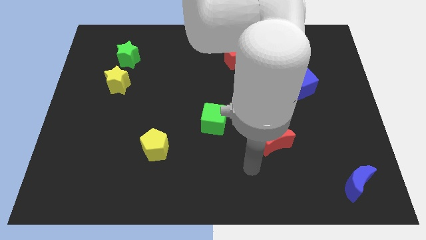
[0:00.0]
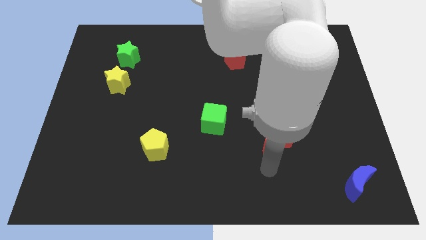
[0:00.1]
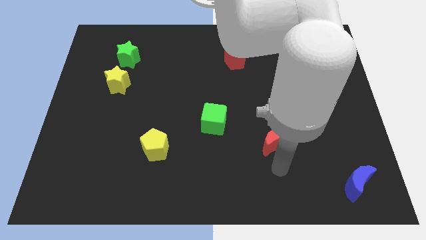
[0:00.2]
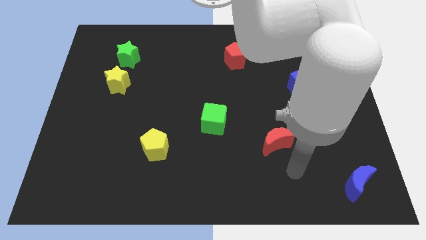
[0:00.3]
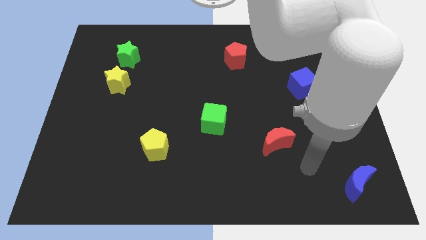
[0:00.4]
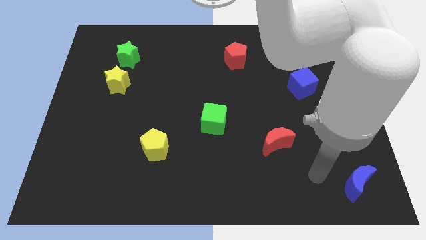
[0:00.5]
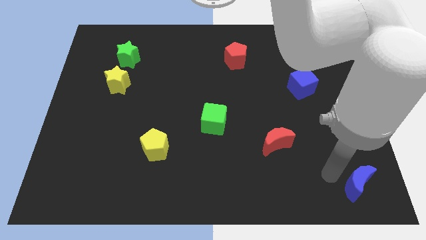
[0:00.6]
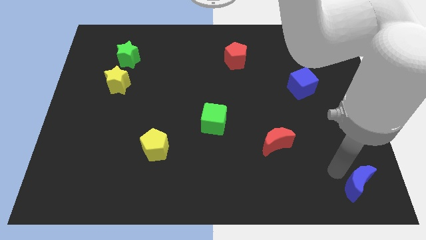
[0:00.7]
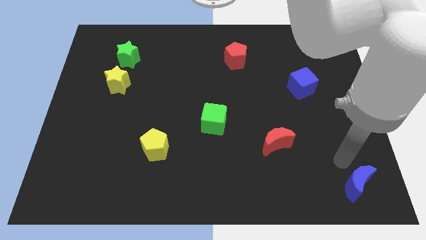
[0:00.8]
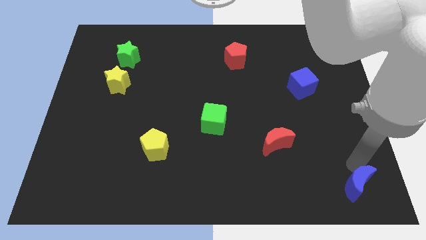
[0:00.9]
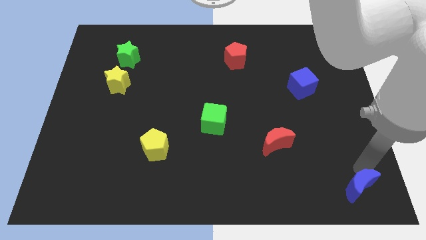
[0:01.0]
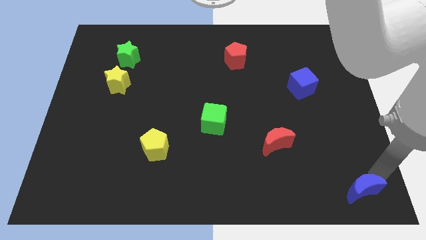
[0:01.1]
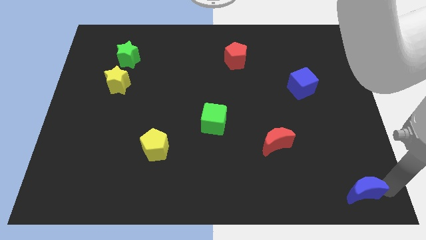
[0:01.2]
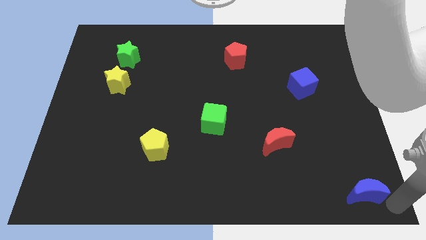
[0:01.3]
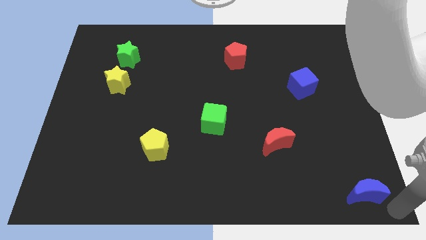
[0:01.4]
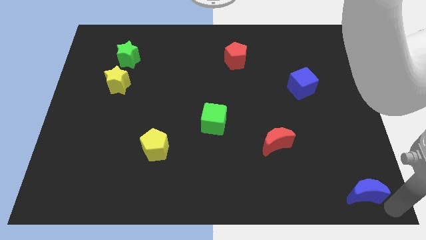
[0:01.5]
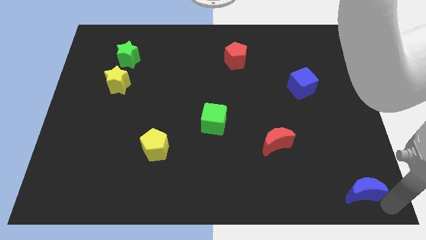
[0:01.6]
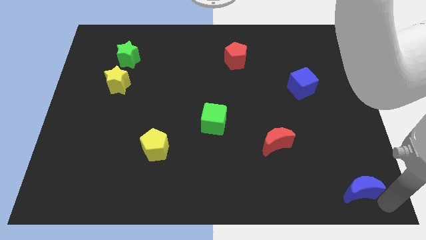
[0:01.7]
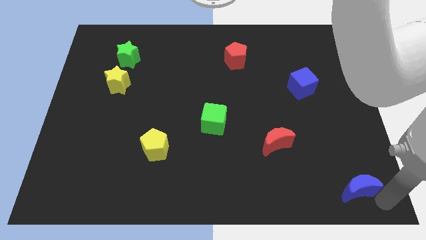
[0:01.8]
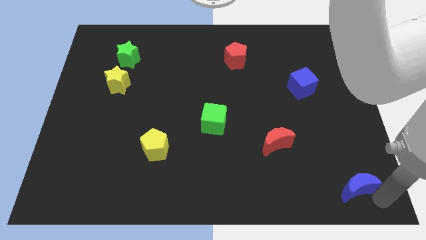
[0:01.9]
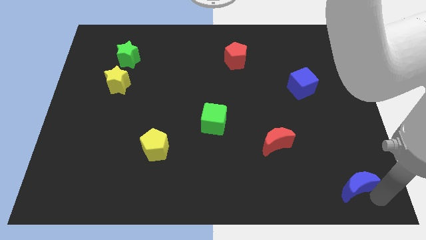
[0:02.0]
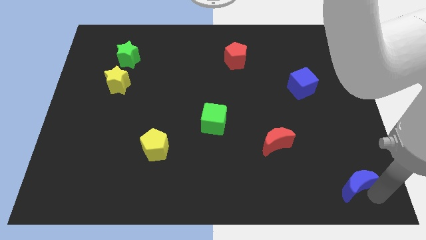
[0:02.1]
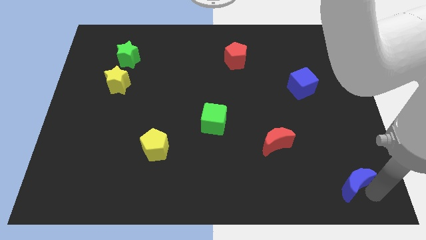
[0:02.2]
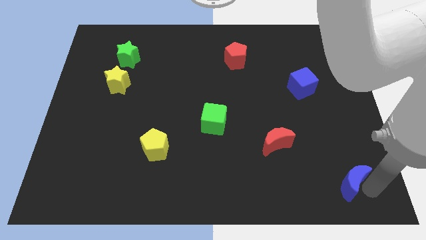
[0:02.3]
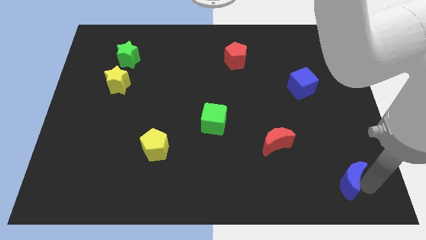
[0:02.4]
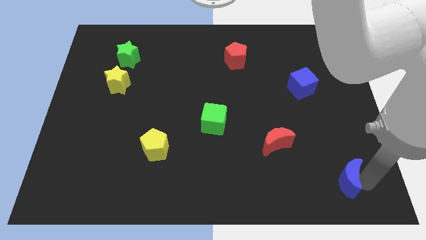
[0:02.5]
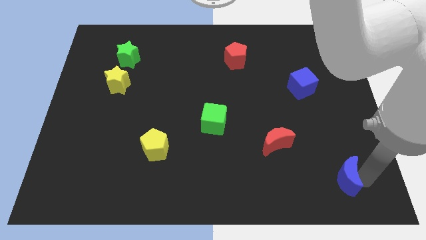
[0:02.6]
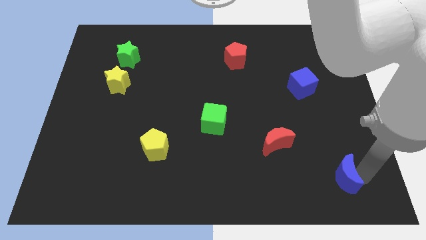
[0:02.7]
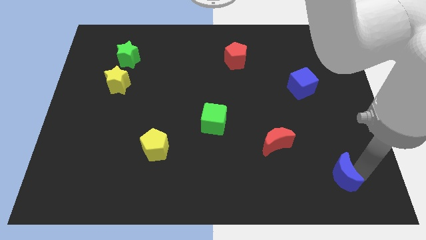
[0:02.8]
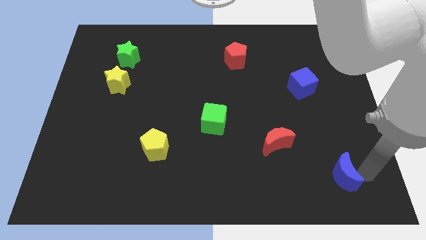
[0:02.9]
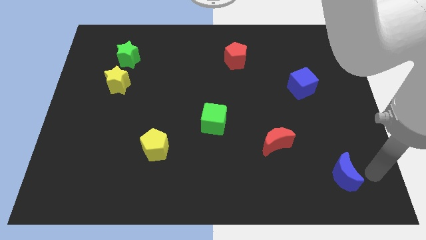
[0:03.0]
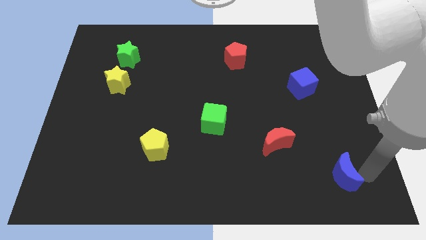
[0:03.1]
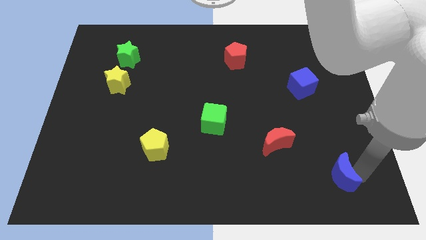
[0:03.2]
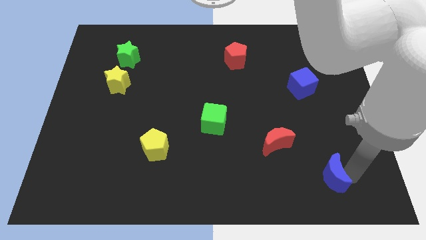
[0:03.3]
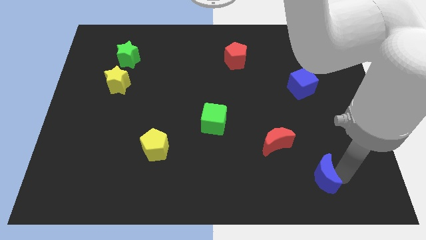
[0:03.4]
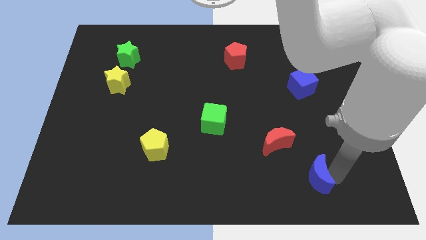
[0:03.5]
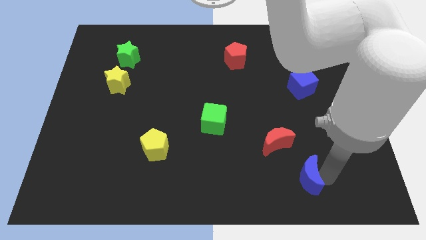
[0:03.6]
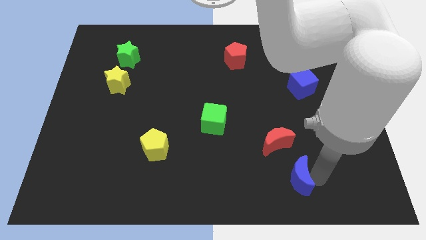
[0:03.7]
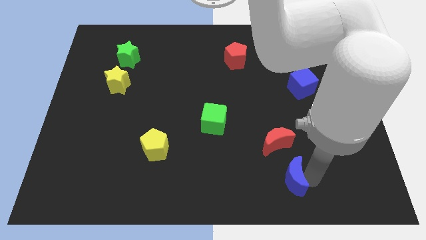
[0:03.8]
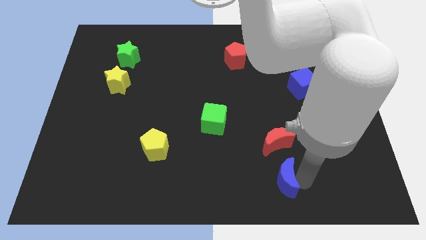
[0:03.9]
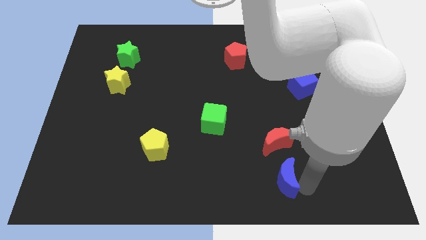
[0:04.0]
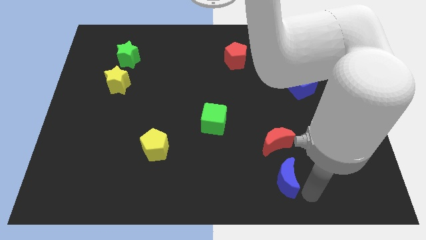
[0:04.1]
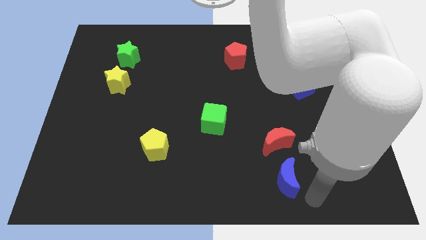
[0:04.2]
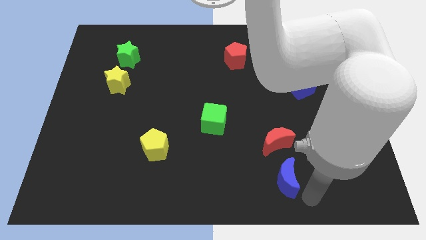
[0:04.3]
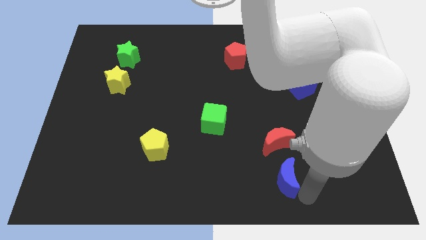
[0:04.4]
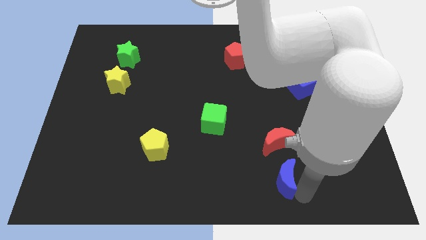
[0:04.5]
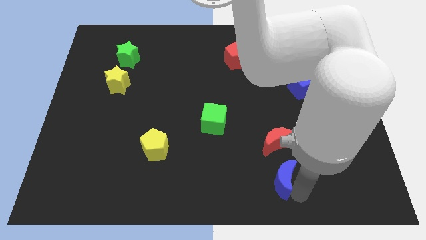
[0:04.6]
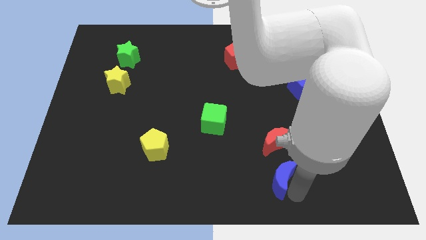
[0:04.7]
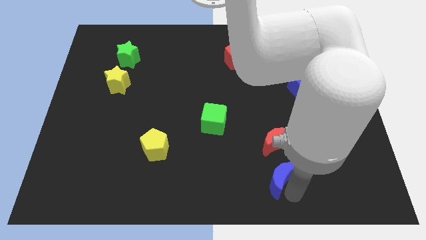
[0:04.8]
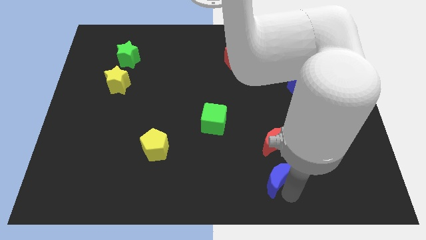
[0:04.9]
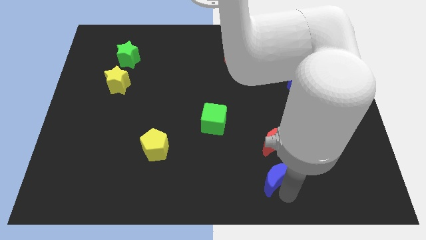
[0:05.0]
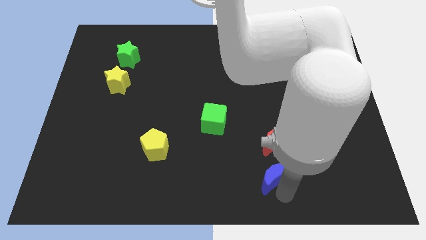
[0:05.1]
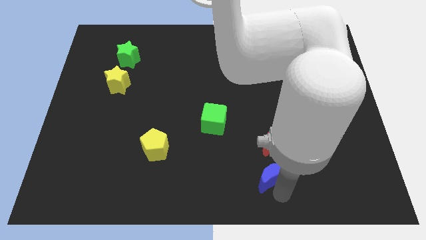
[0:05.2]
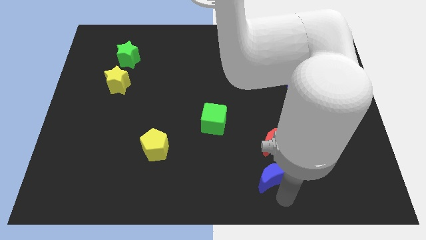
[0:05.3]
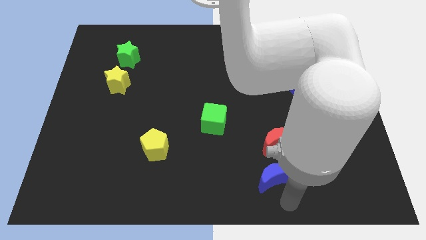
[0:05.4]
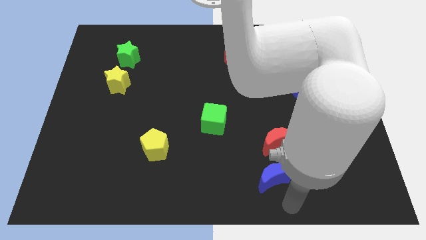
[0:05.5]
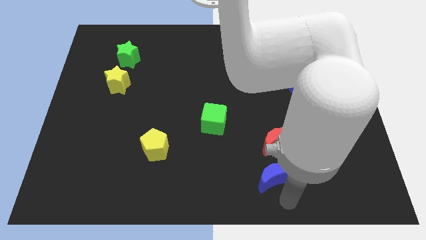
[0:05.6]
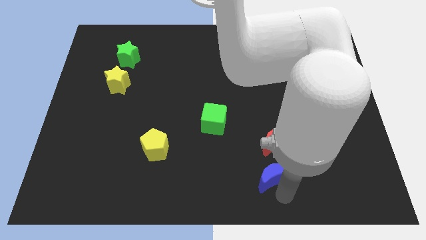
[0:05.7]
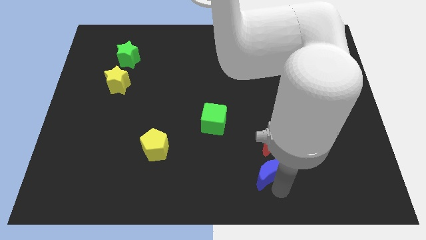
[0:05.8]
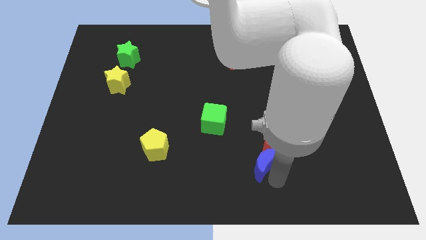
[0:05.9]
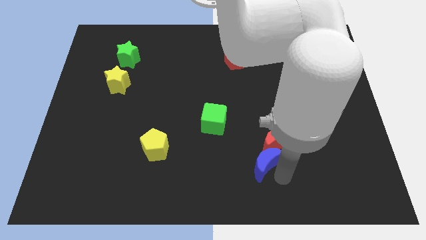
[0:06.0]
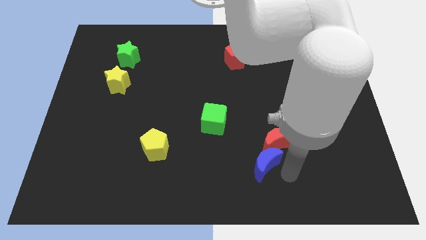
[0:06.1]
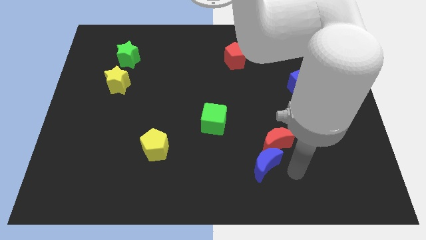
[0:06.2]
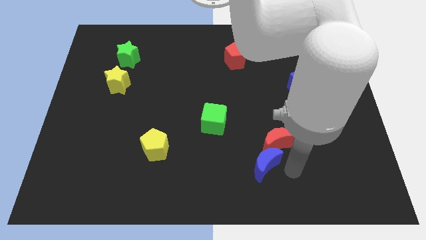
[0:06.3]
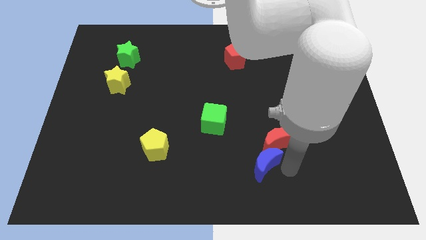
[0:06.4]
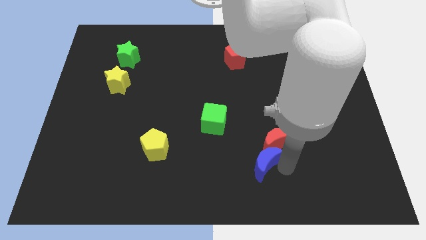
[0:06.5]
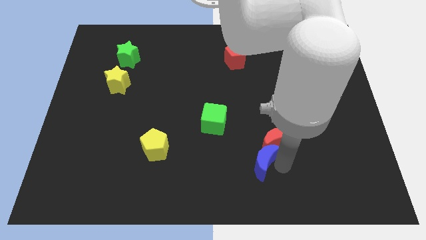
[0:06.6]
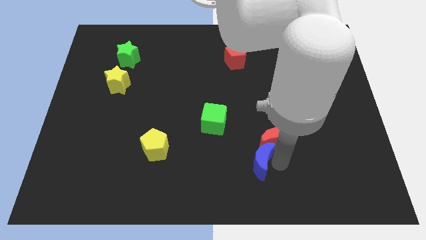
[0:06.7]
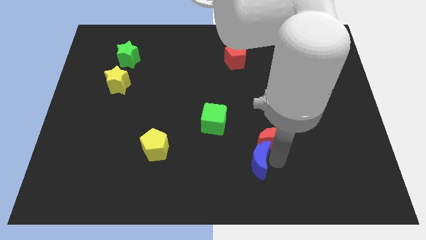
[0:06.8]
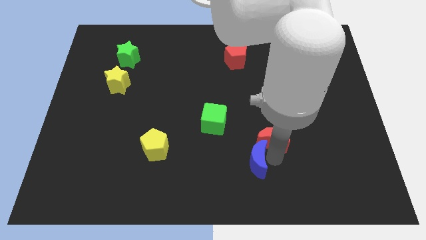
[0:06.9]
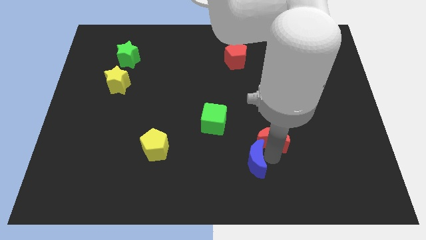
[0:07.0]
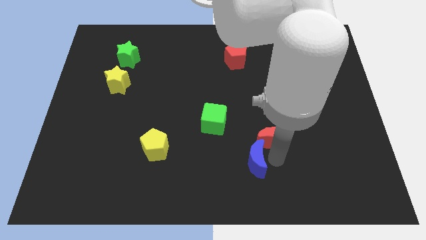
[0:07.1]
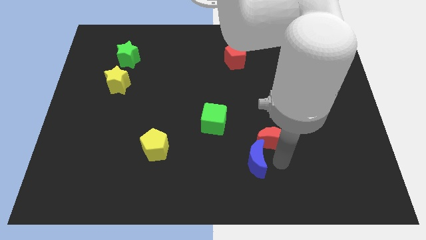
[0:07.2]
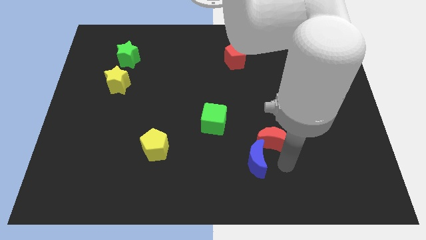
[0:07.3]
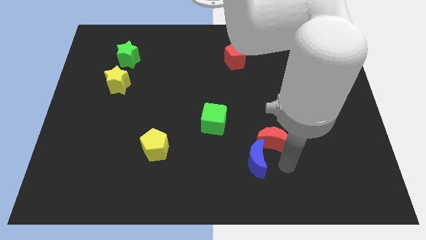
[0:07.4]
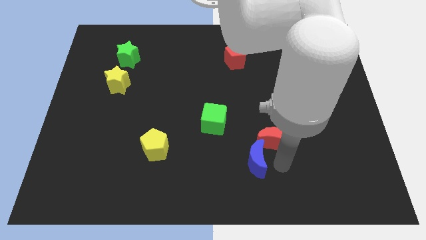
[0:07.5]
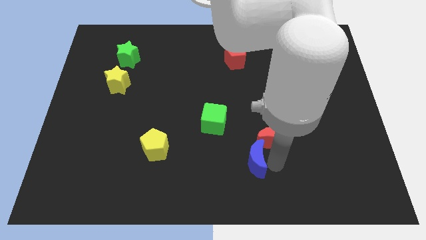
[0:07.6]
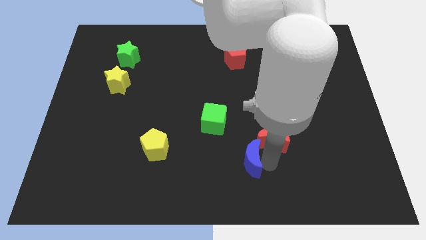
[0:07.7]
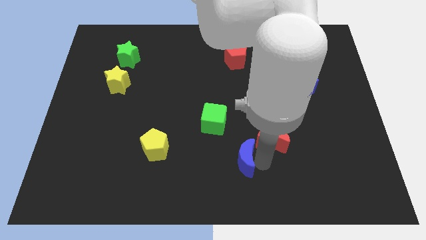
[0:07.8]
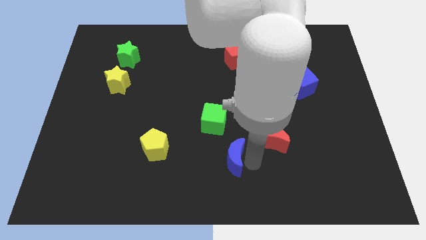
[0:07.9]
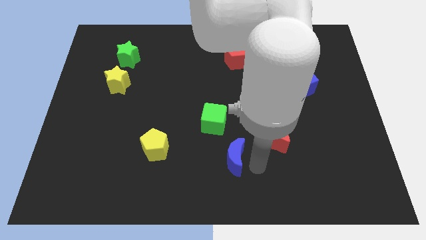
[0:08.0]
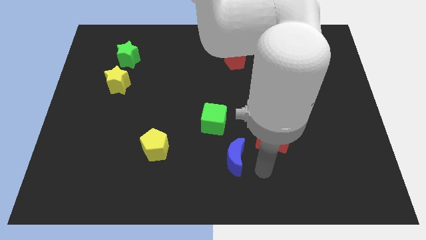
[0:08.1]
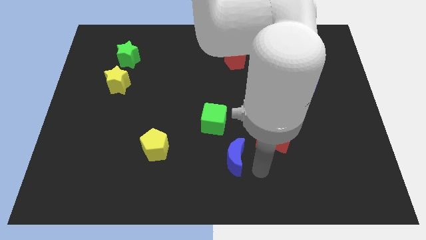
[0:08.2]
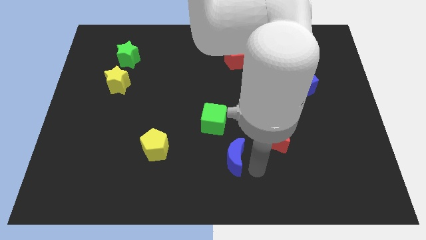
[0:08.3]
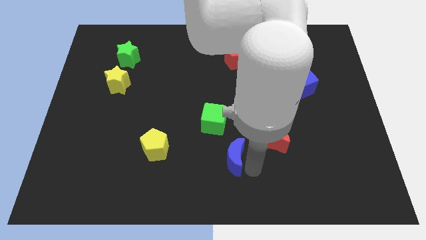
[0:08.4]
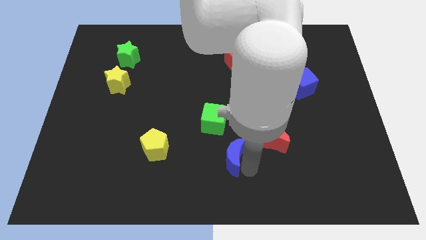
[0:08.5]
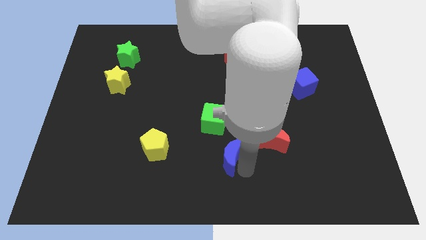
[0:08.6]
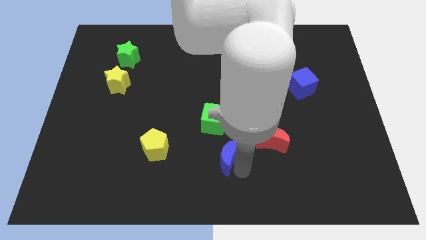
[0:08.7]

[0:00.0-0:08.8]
slide the blue moon to the right side of the yellow pentagon
